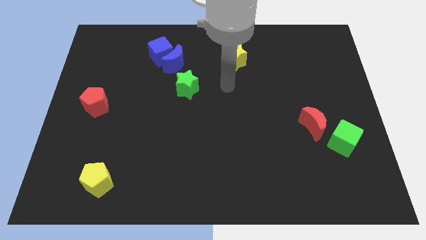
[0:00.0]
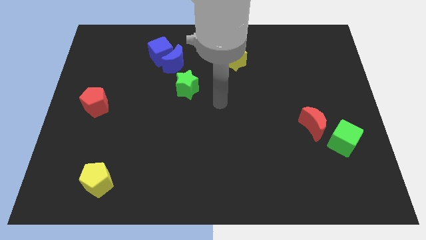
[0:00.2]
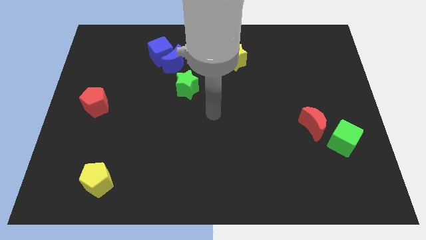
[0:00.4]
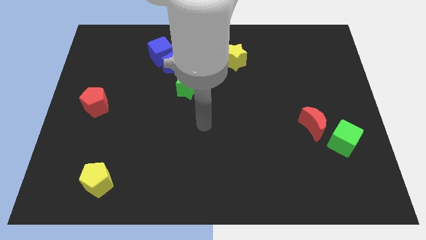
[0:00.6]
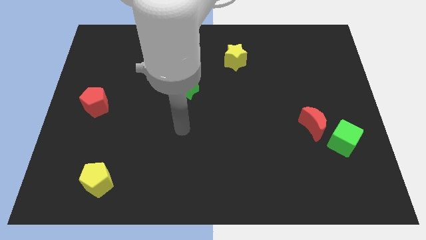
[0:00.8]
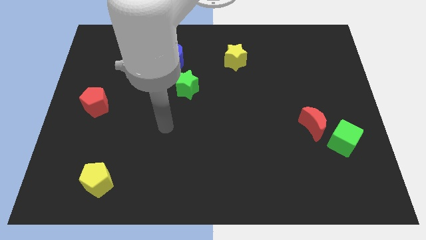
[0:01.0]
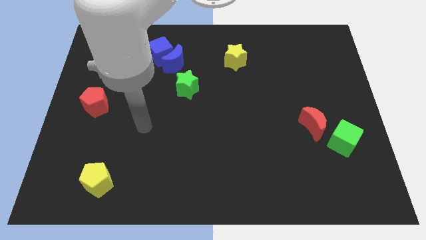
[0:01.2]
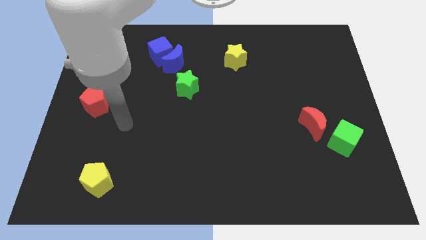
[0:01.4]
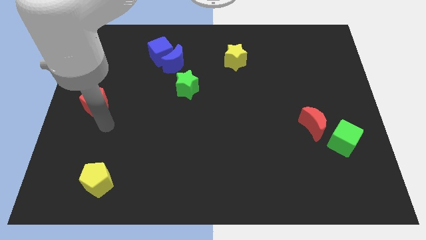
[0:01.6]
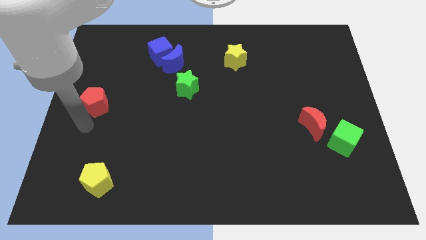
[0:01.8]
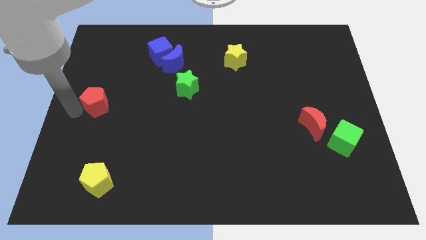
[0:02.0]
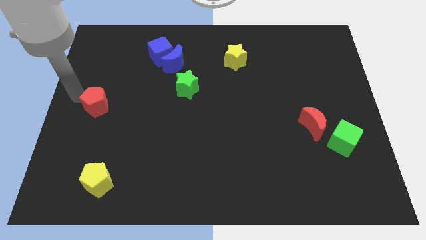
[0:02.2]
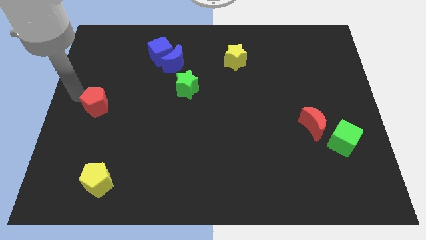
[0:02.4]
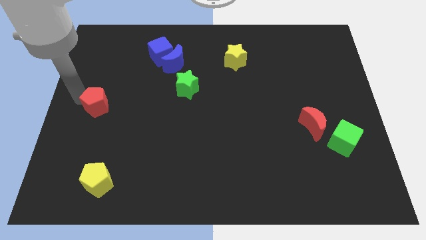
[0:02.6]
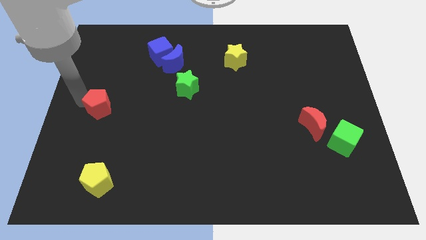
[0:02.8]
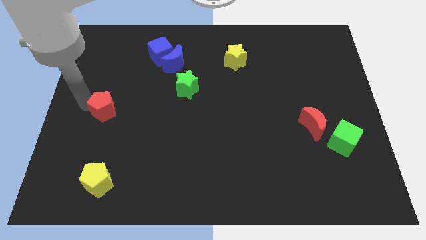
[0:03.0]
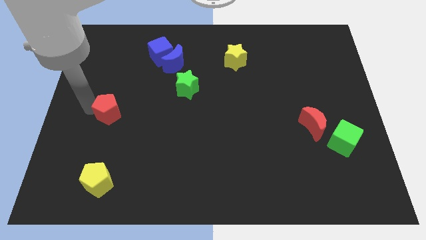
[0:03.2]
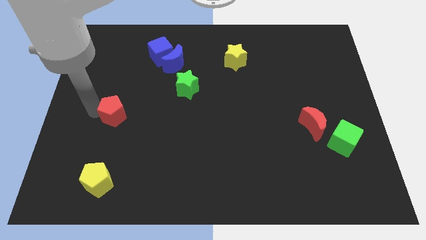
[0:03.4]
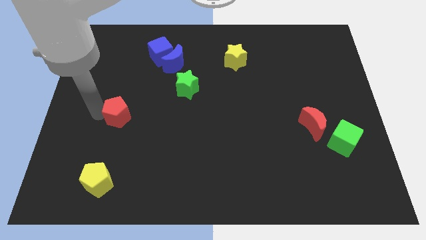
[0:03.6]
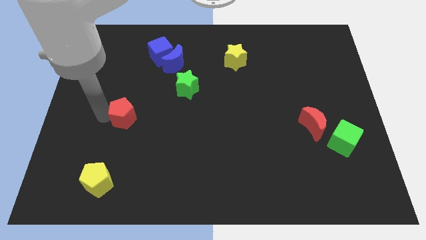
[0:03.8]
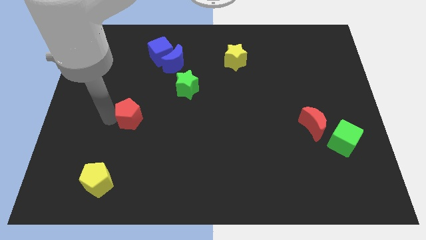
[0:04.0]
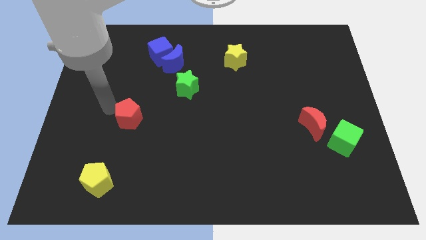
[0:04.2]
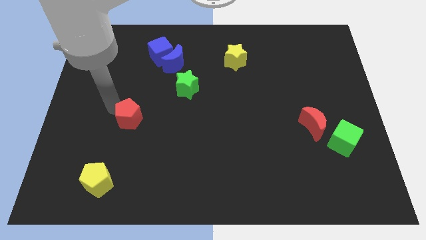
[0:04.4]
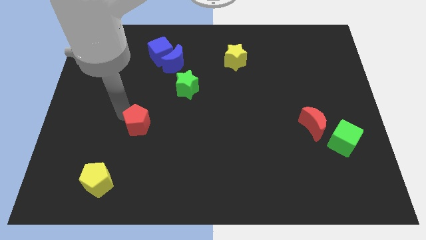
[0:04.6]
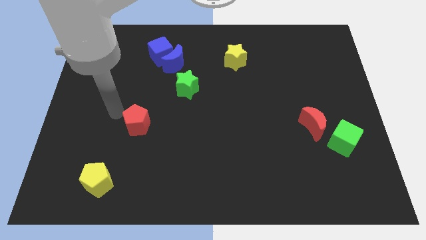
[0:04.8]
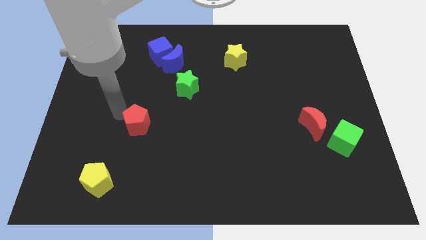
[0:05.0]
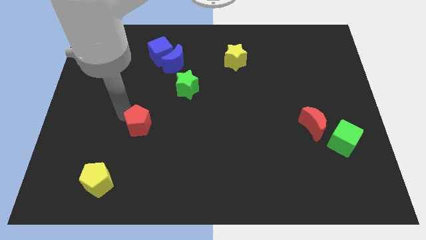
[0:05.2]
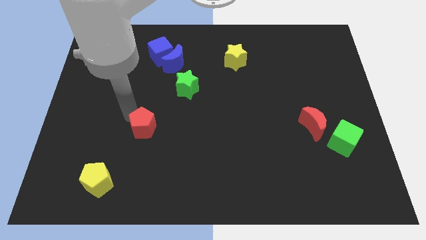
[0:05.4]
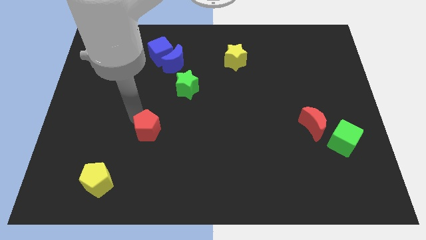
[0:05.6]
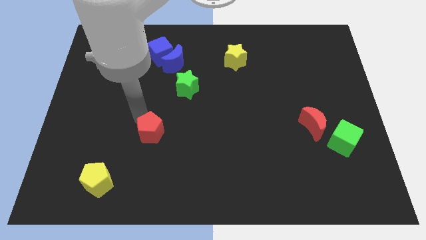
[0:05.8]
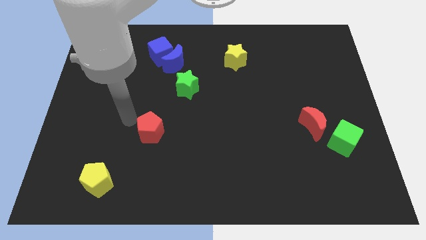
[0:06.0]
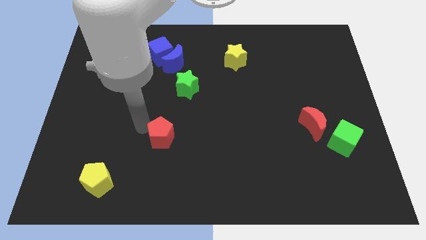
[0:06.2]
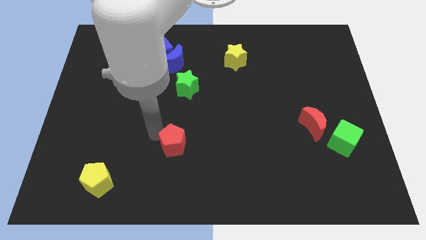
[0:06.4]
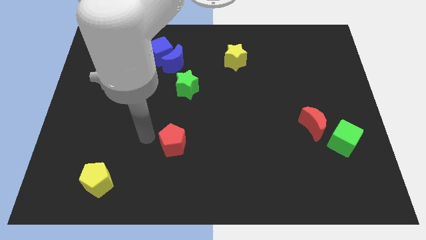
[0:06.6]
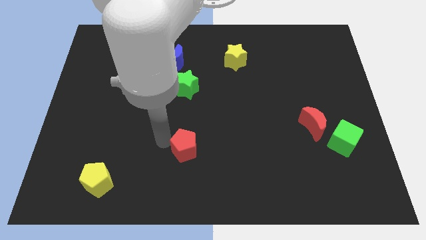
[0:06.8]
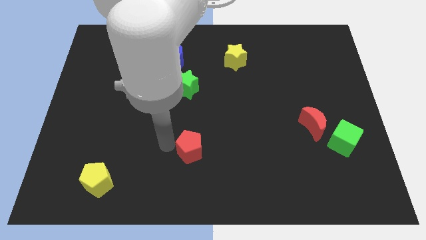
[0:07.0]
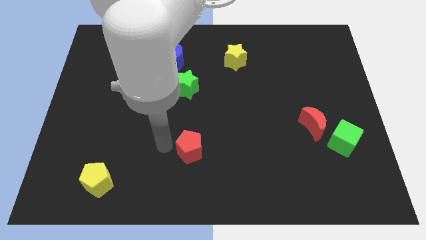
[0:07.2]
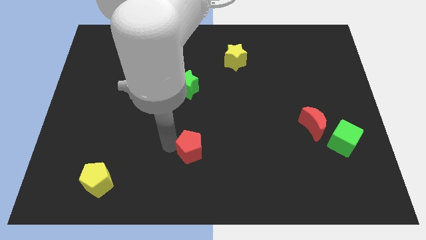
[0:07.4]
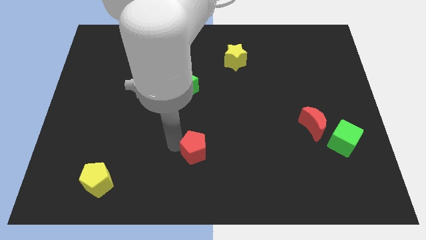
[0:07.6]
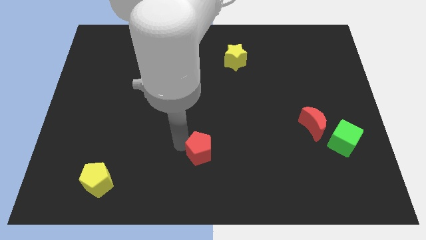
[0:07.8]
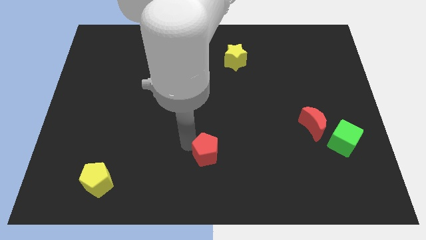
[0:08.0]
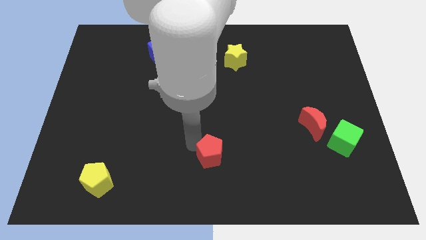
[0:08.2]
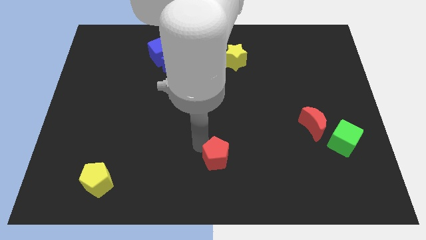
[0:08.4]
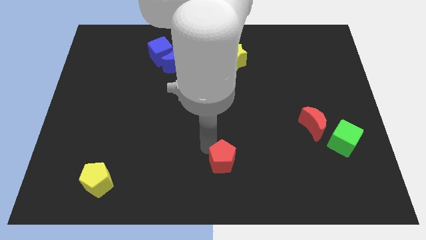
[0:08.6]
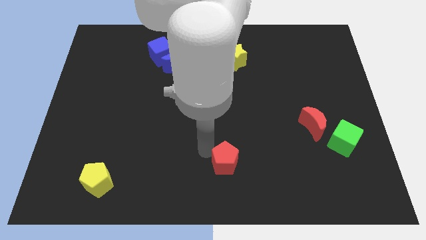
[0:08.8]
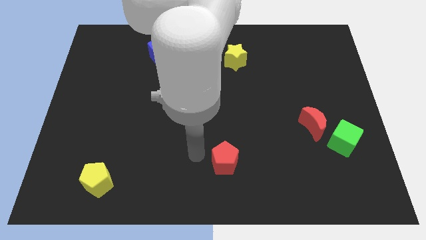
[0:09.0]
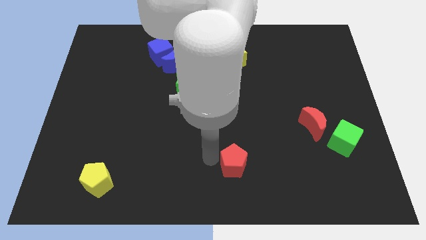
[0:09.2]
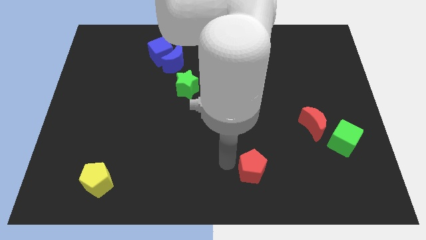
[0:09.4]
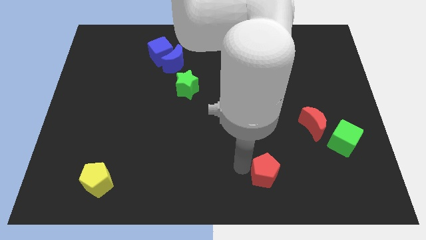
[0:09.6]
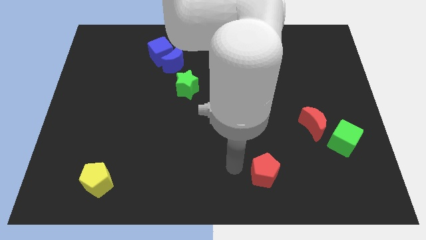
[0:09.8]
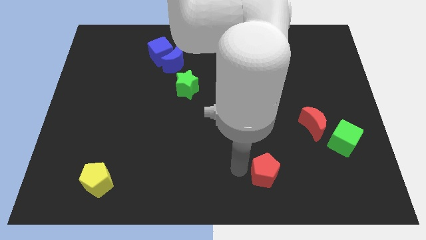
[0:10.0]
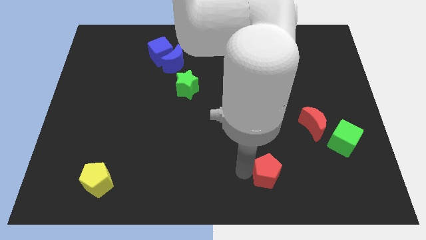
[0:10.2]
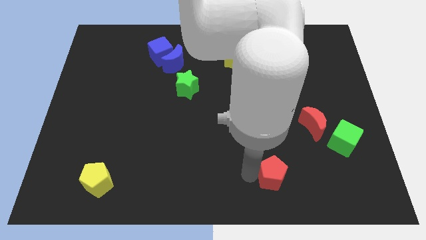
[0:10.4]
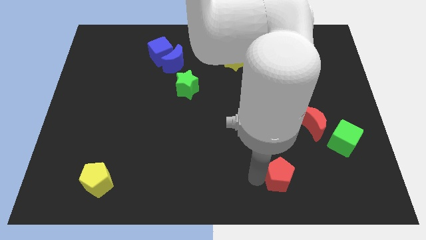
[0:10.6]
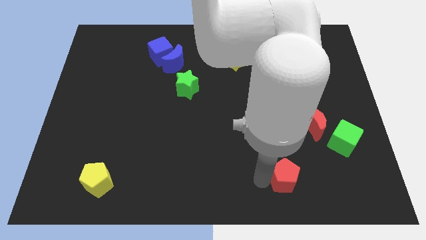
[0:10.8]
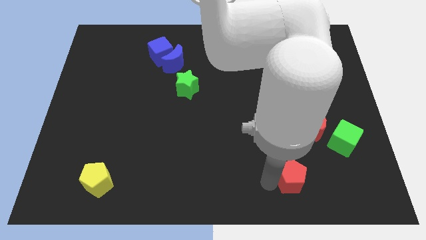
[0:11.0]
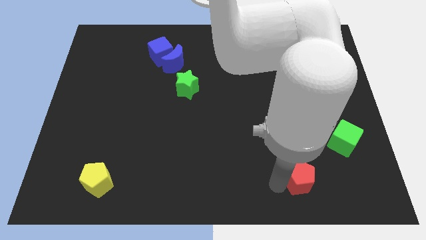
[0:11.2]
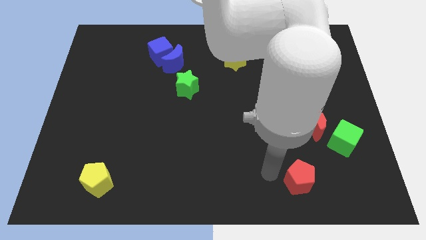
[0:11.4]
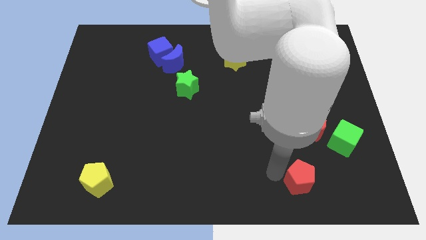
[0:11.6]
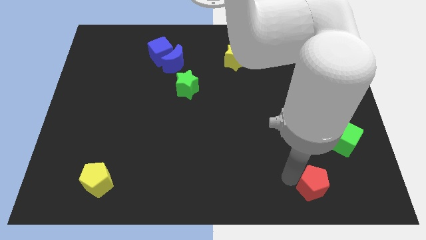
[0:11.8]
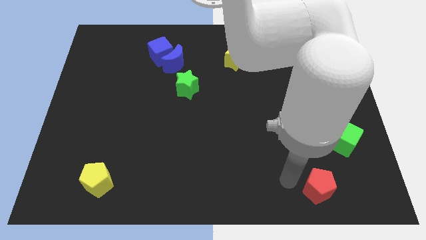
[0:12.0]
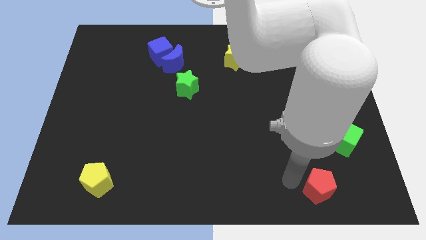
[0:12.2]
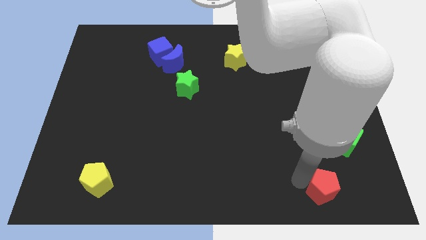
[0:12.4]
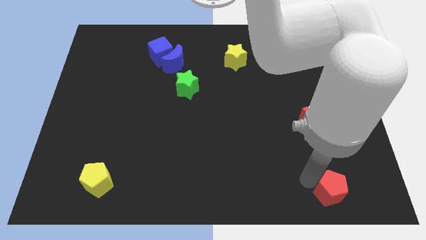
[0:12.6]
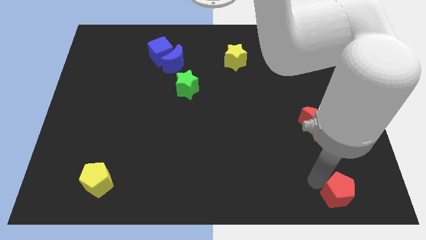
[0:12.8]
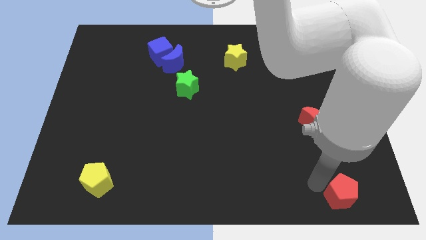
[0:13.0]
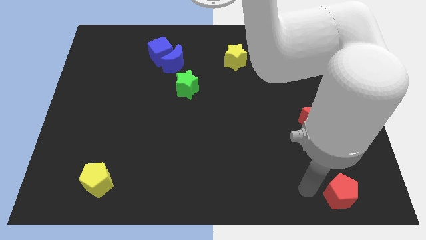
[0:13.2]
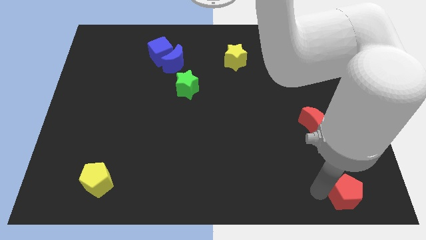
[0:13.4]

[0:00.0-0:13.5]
move the red pentagon to the bottom right of the board
